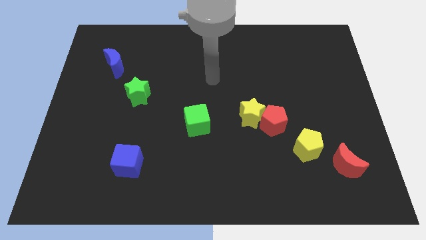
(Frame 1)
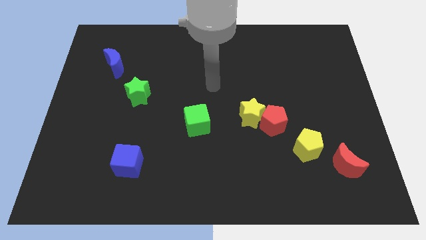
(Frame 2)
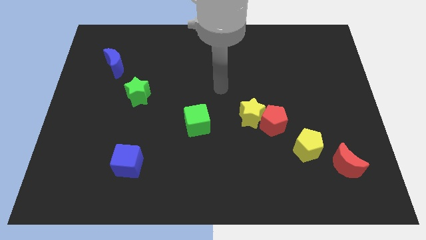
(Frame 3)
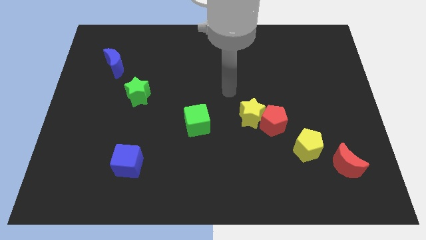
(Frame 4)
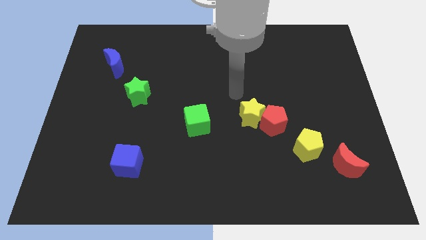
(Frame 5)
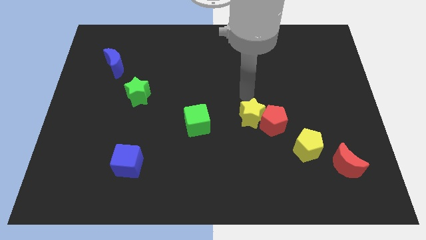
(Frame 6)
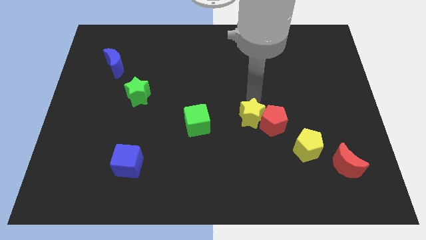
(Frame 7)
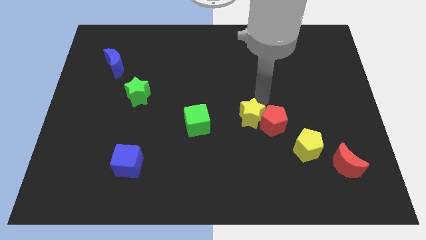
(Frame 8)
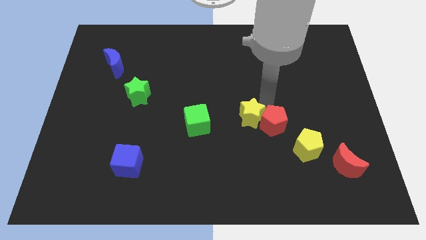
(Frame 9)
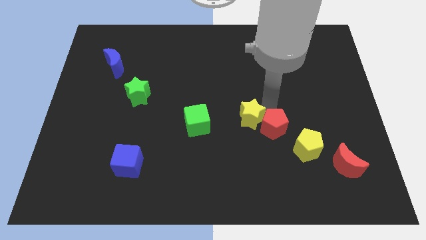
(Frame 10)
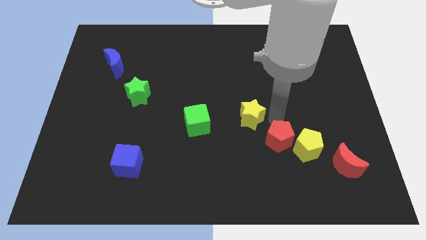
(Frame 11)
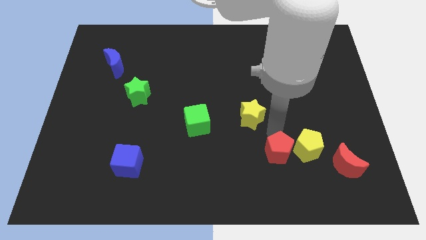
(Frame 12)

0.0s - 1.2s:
separate the yellow star from the red pentagon

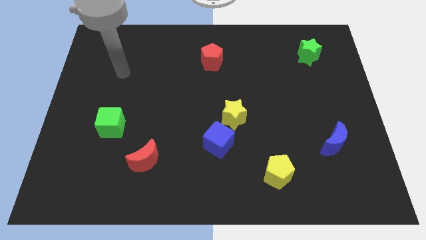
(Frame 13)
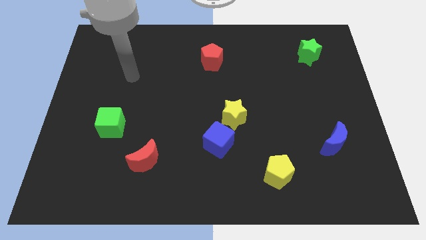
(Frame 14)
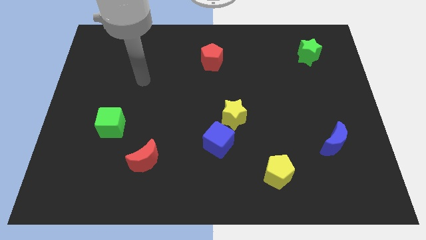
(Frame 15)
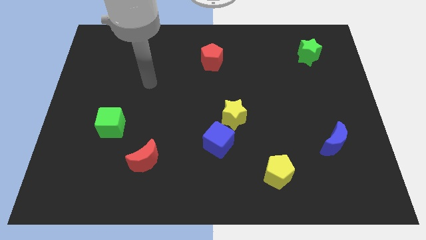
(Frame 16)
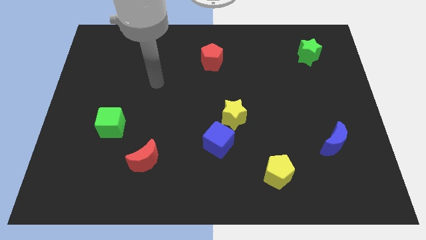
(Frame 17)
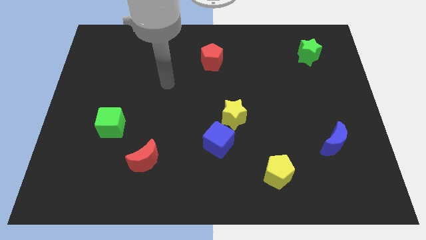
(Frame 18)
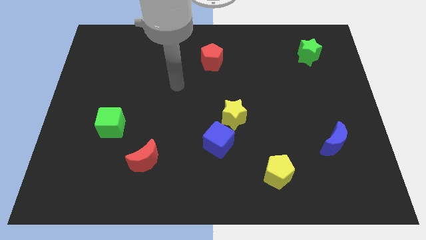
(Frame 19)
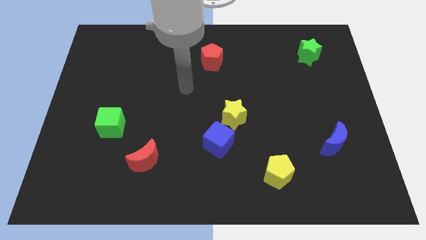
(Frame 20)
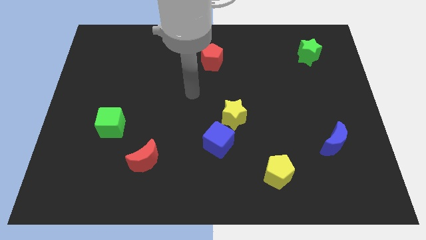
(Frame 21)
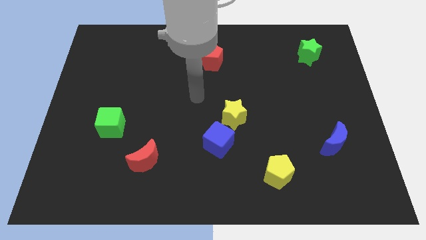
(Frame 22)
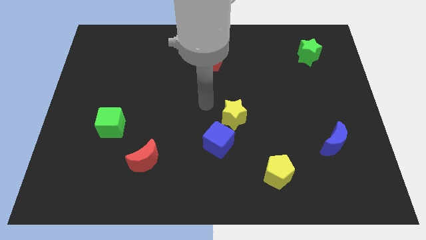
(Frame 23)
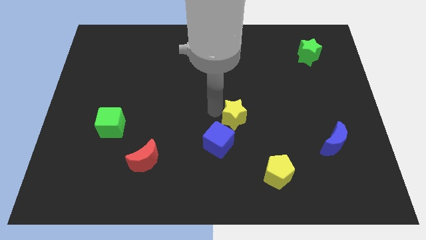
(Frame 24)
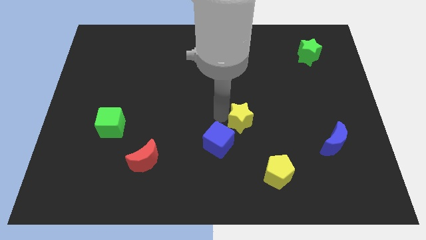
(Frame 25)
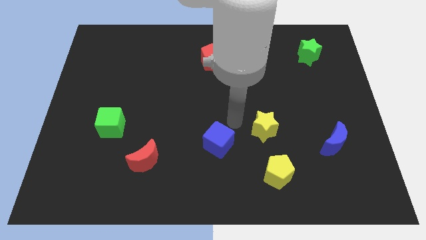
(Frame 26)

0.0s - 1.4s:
move the blue cube away from the yellow star

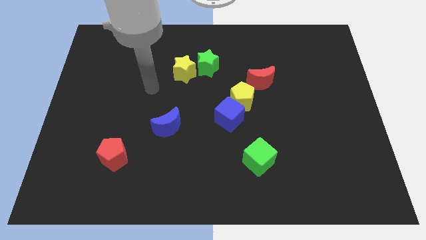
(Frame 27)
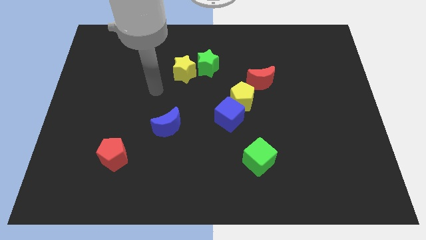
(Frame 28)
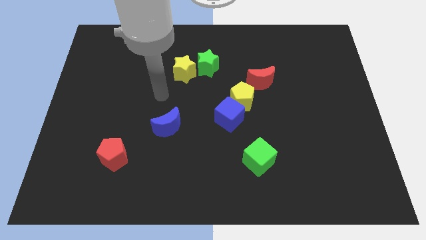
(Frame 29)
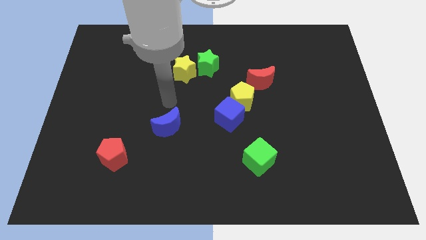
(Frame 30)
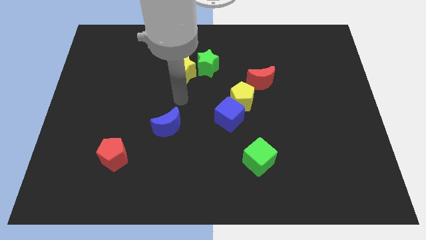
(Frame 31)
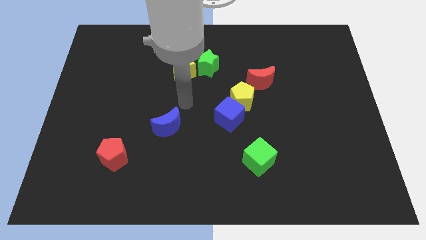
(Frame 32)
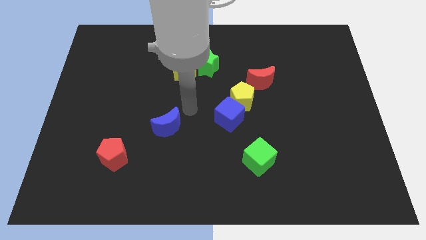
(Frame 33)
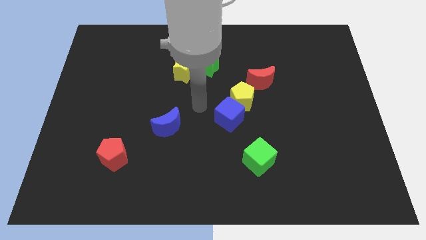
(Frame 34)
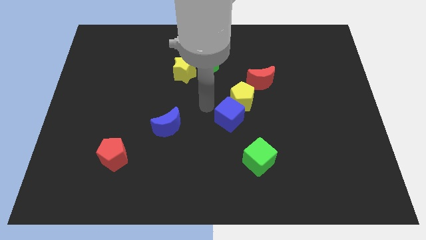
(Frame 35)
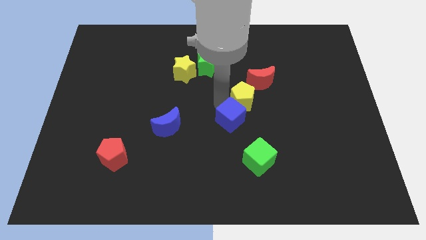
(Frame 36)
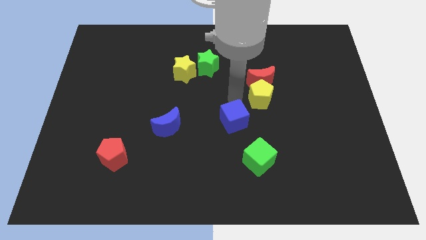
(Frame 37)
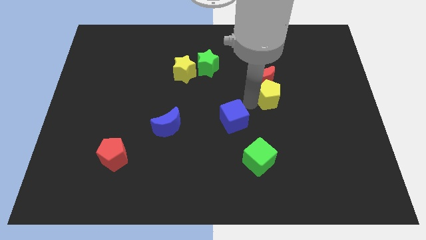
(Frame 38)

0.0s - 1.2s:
pull the blue cube apart from the yellow pentagon

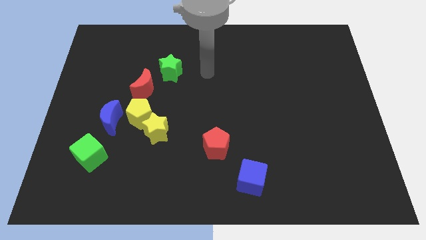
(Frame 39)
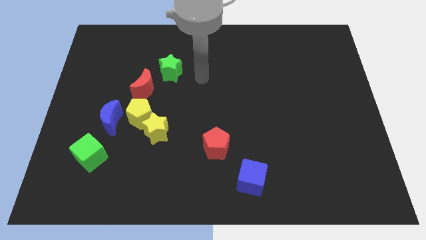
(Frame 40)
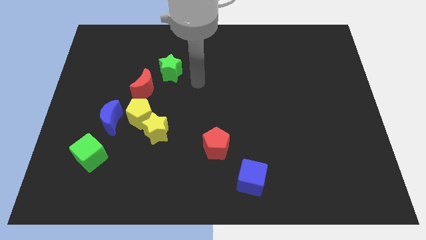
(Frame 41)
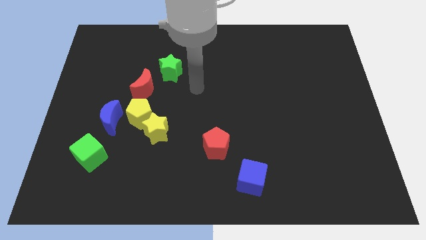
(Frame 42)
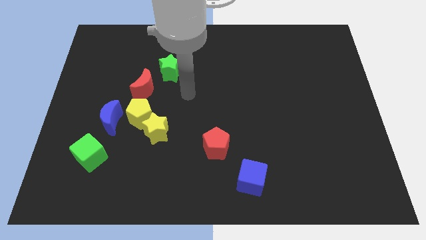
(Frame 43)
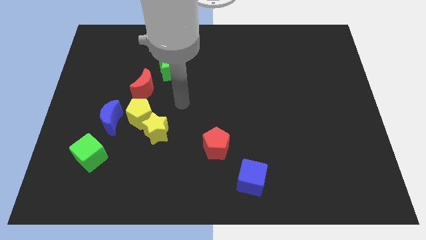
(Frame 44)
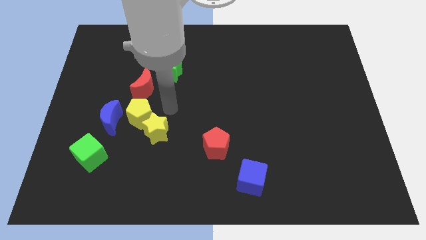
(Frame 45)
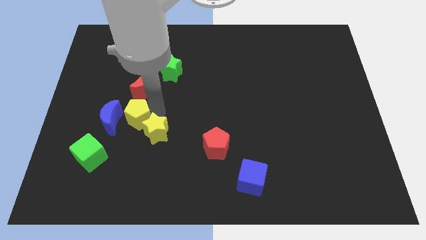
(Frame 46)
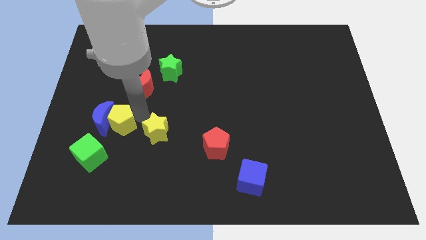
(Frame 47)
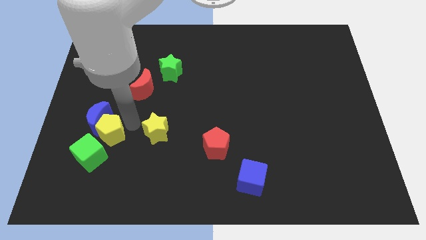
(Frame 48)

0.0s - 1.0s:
separate the yellow star from the yellow pentagon

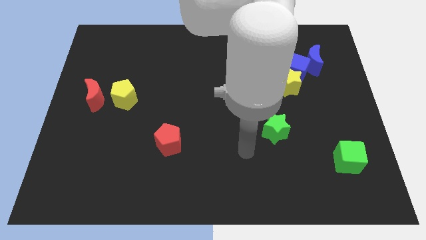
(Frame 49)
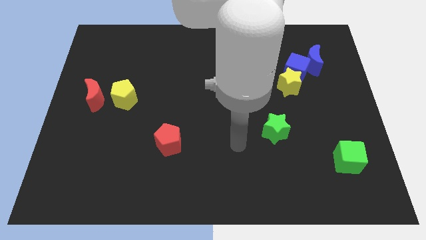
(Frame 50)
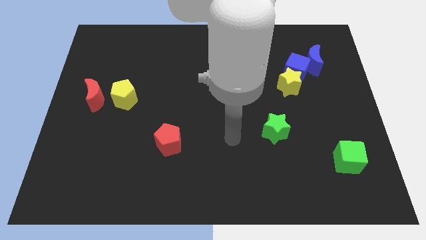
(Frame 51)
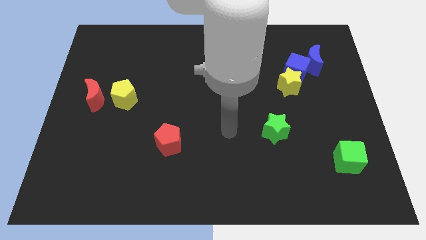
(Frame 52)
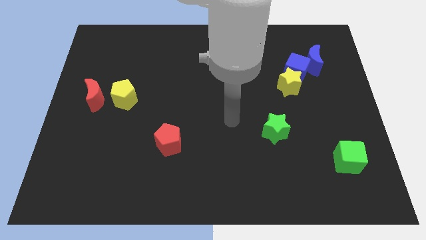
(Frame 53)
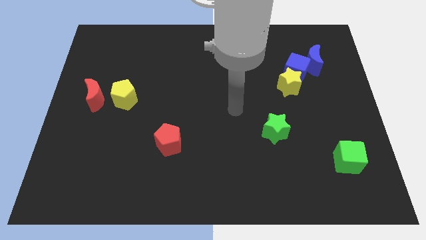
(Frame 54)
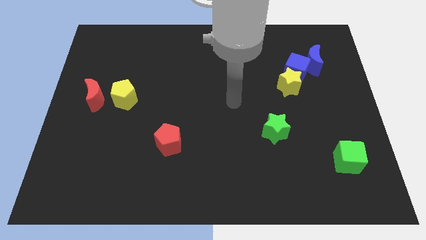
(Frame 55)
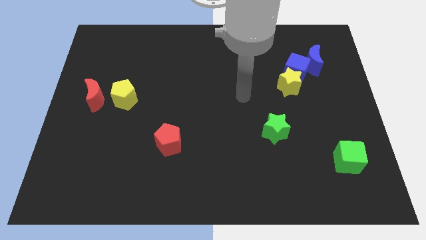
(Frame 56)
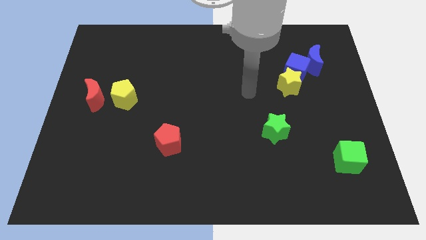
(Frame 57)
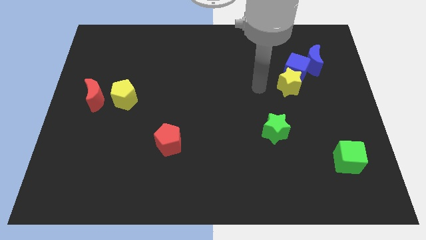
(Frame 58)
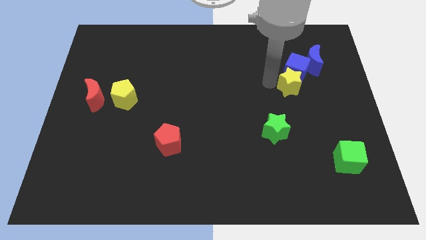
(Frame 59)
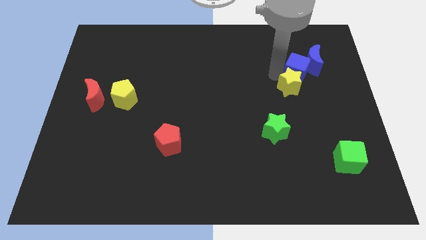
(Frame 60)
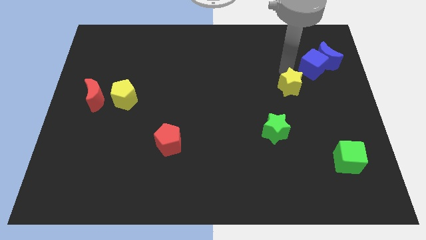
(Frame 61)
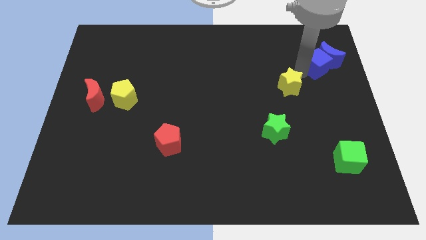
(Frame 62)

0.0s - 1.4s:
separate the yellow star from the blue cube

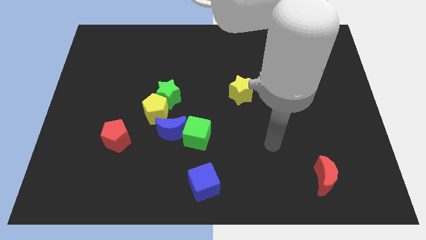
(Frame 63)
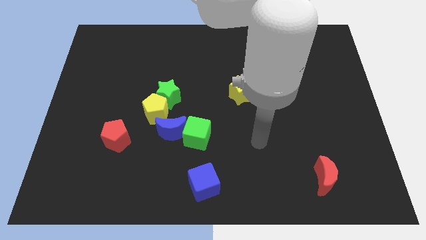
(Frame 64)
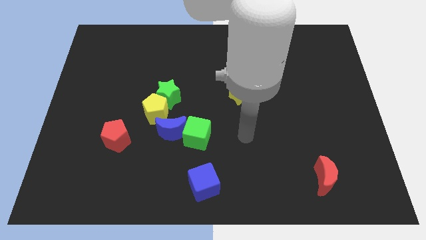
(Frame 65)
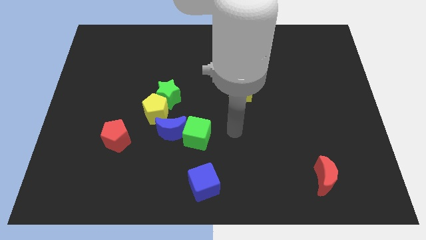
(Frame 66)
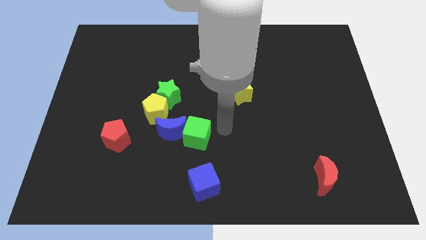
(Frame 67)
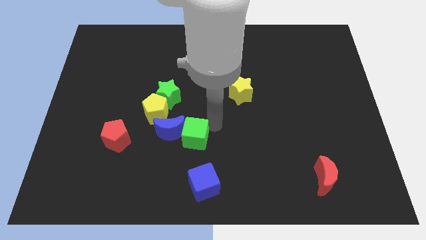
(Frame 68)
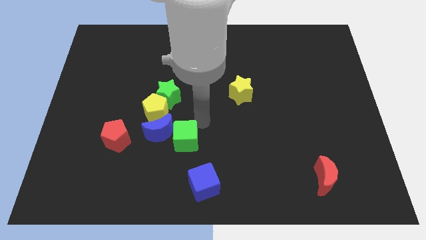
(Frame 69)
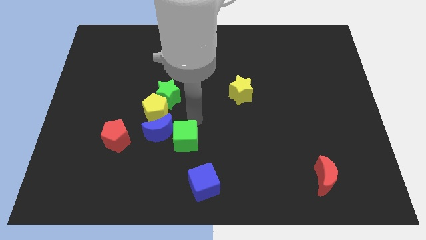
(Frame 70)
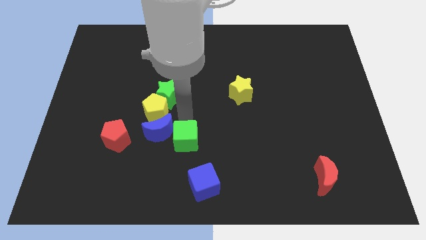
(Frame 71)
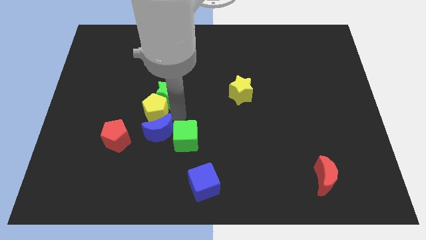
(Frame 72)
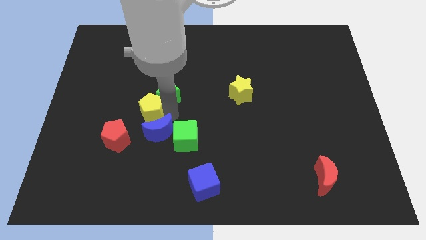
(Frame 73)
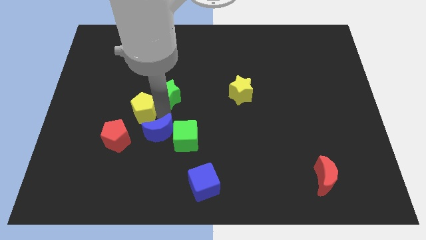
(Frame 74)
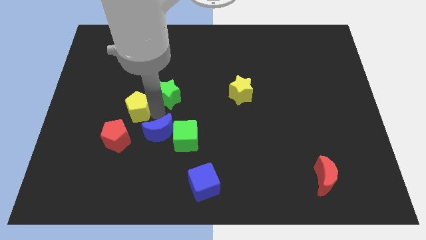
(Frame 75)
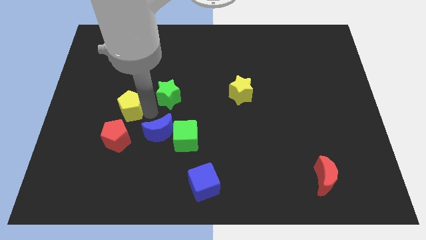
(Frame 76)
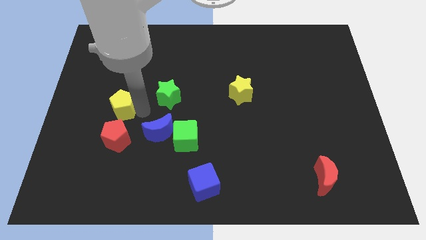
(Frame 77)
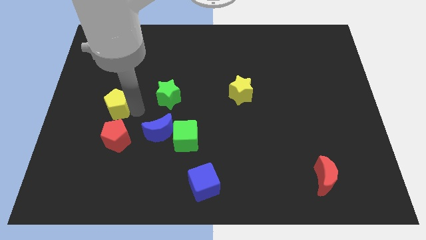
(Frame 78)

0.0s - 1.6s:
move the yellow pentagon away from the green star and blue moon

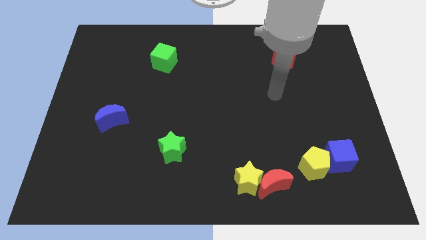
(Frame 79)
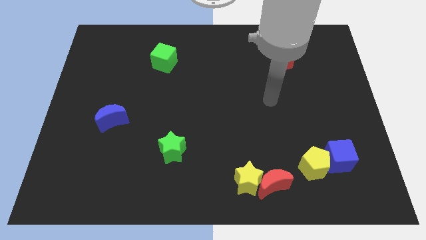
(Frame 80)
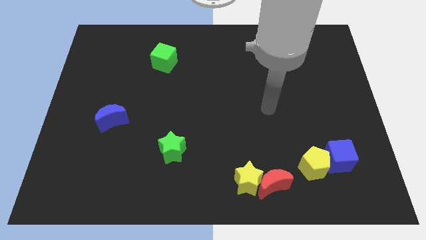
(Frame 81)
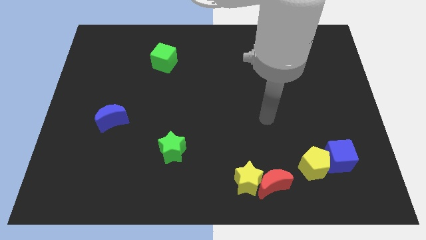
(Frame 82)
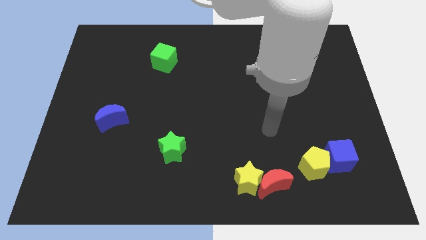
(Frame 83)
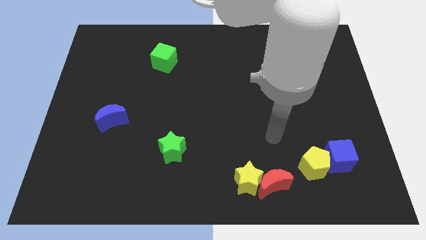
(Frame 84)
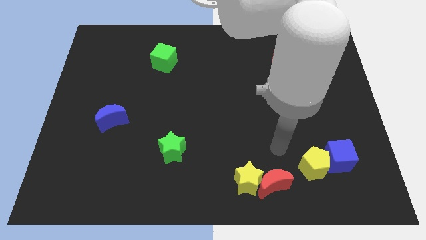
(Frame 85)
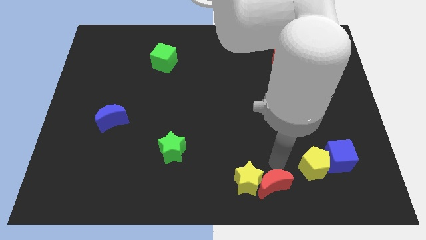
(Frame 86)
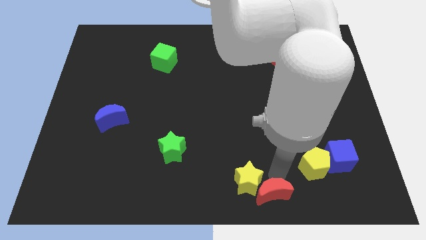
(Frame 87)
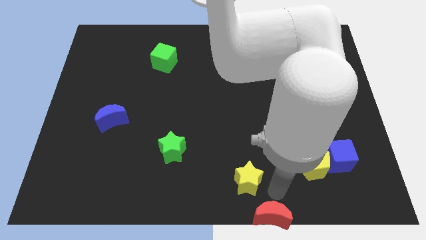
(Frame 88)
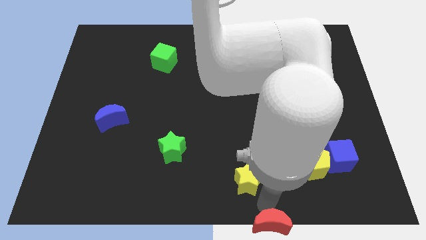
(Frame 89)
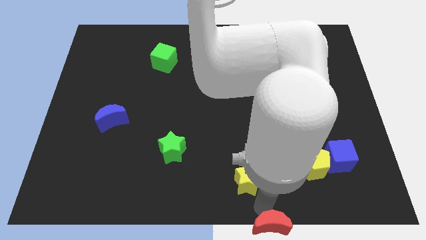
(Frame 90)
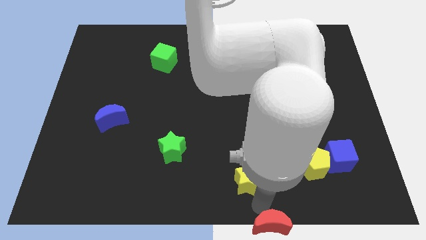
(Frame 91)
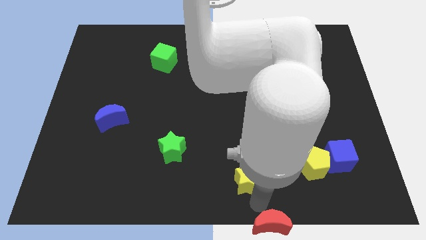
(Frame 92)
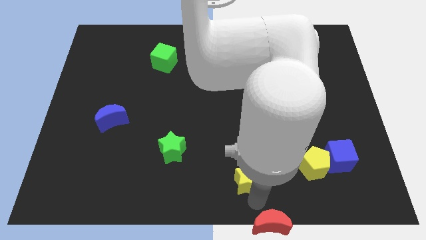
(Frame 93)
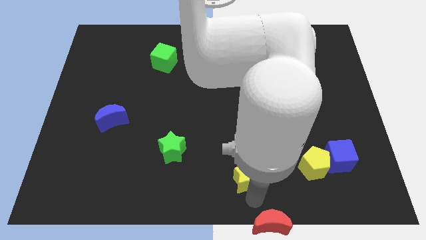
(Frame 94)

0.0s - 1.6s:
move the yellow star away from the red moon
